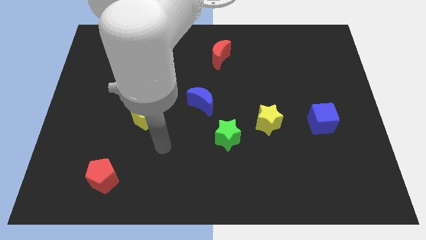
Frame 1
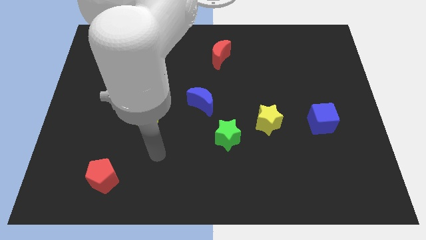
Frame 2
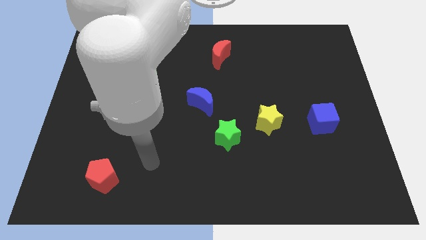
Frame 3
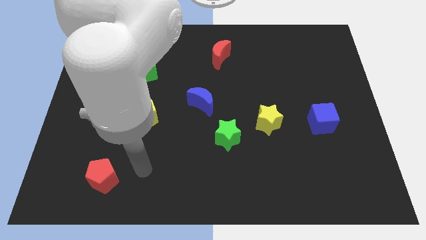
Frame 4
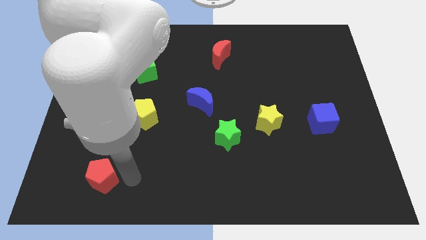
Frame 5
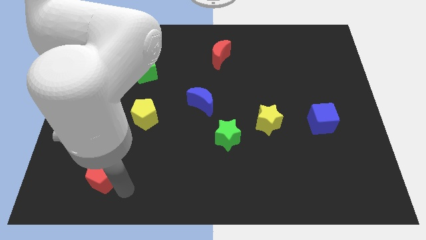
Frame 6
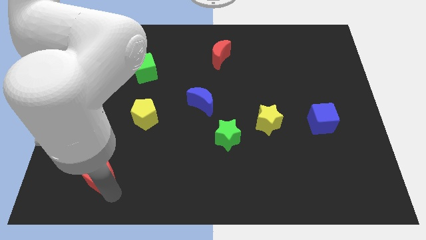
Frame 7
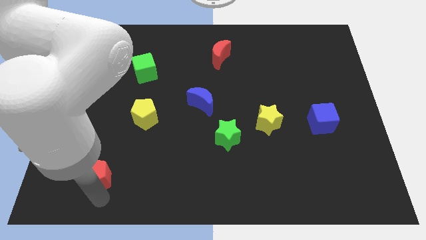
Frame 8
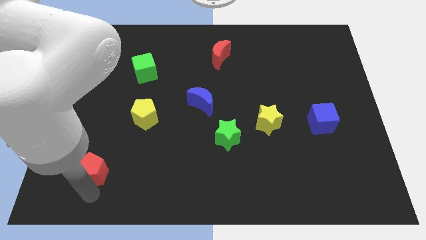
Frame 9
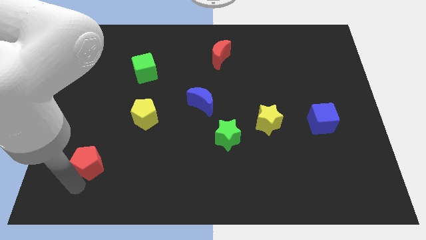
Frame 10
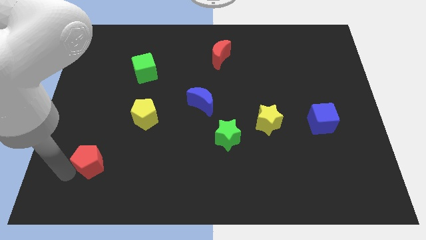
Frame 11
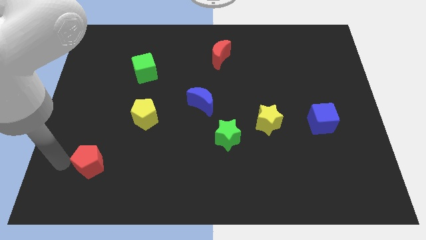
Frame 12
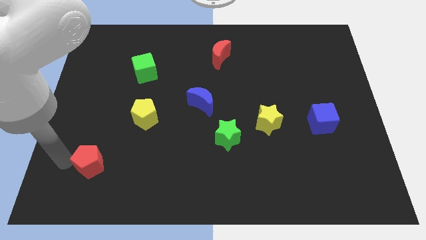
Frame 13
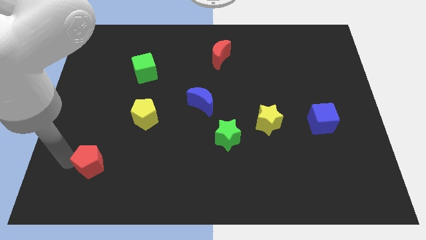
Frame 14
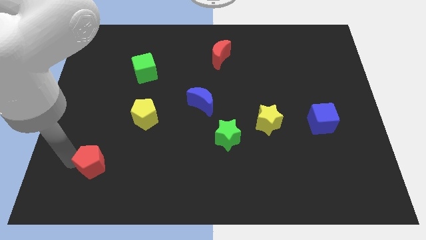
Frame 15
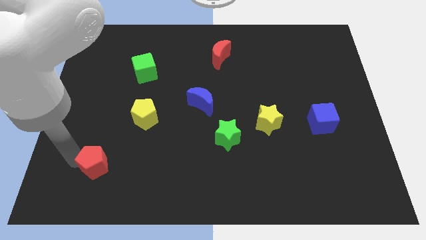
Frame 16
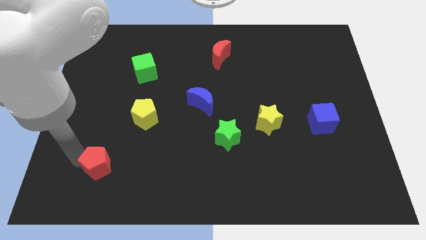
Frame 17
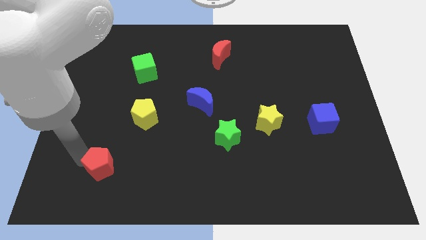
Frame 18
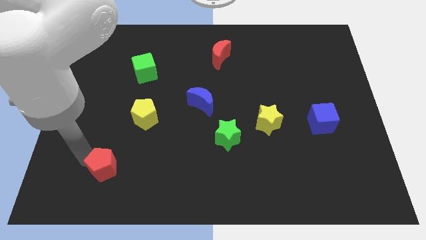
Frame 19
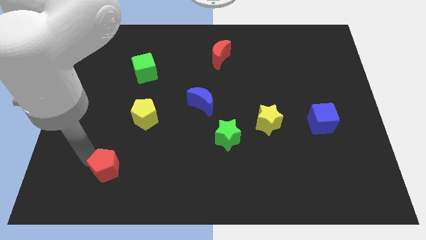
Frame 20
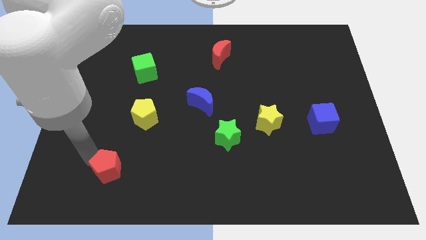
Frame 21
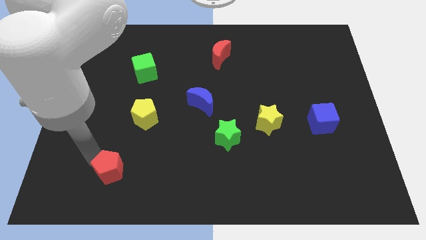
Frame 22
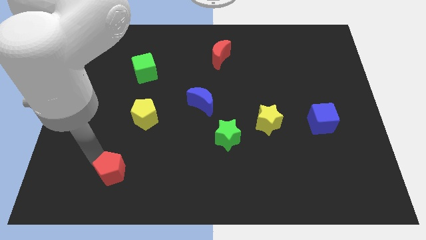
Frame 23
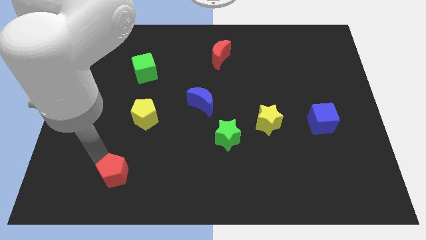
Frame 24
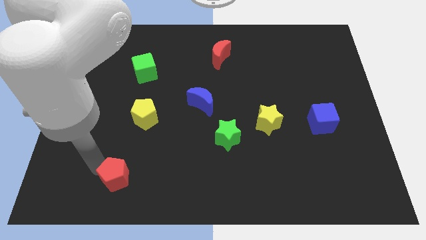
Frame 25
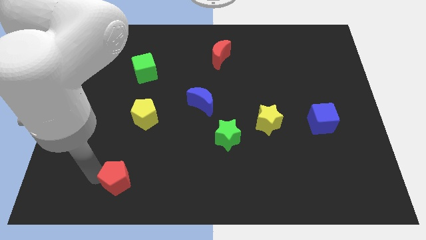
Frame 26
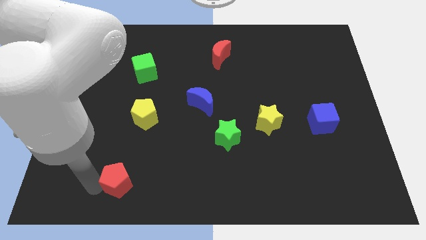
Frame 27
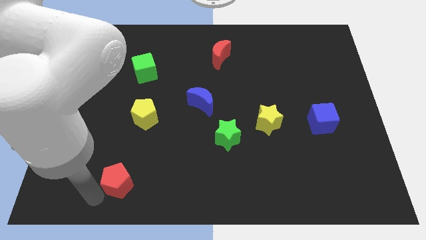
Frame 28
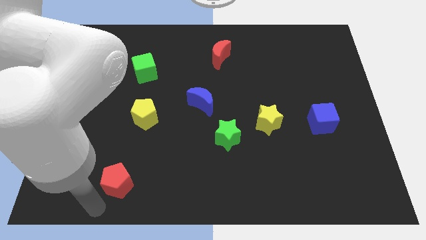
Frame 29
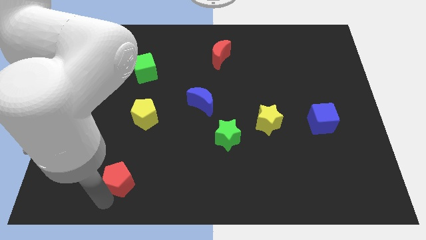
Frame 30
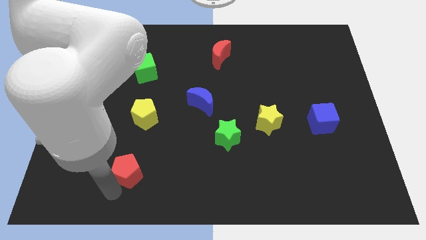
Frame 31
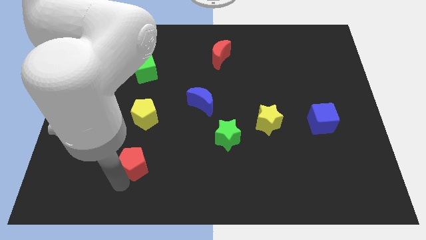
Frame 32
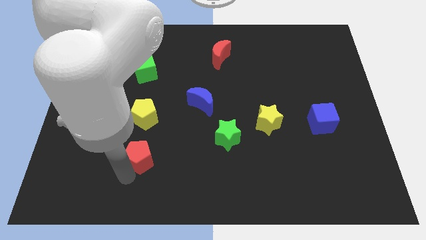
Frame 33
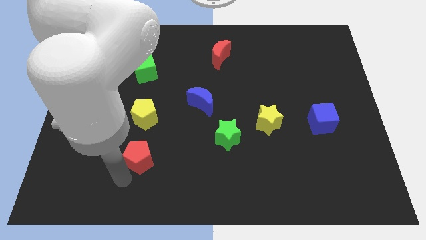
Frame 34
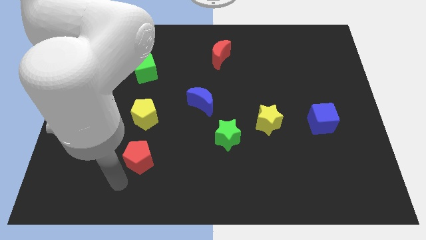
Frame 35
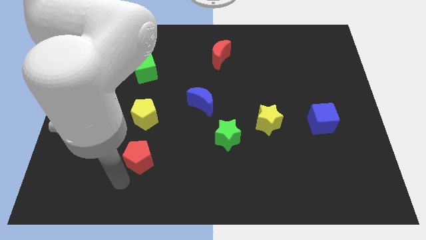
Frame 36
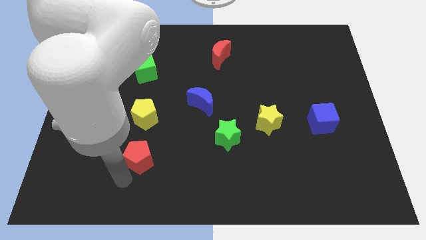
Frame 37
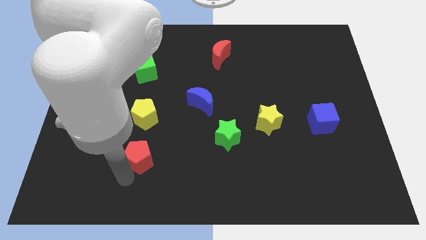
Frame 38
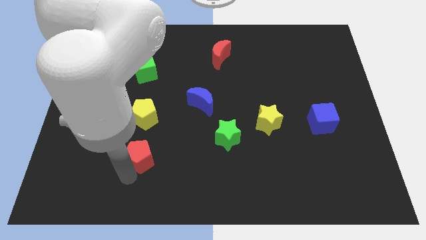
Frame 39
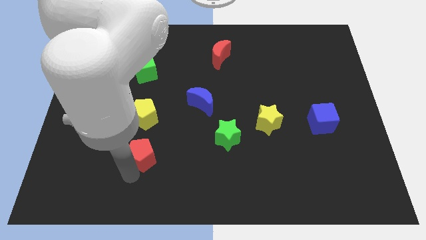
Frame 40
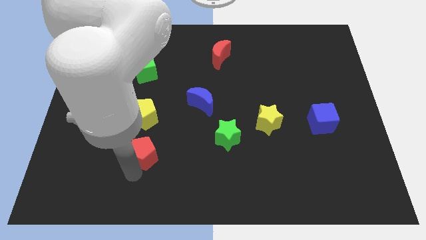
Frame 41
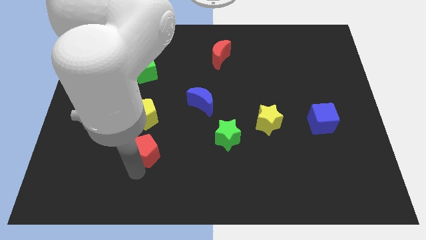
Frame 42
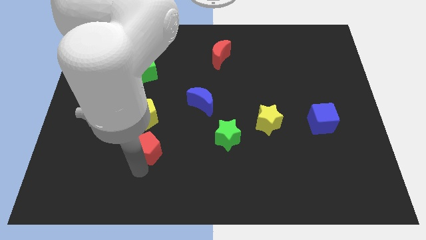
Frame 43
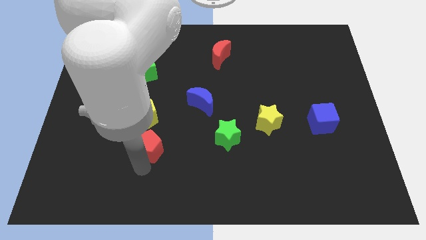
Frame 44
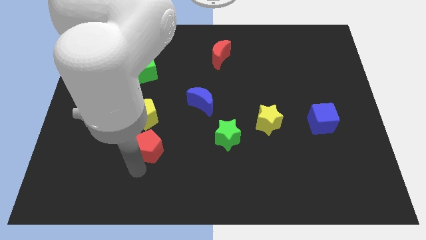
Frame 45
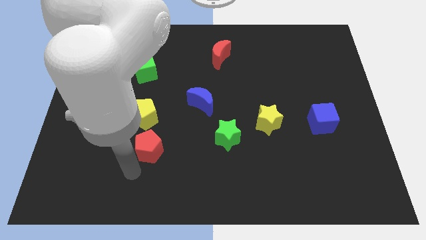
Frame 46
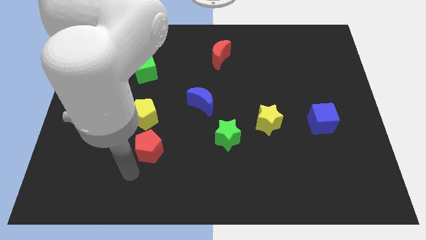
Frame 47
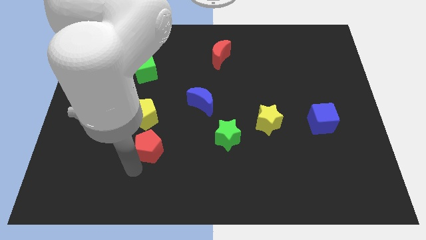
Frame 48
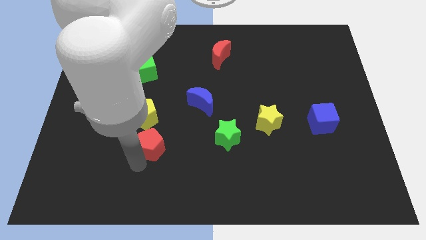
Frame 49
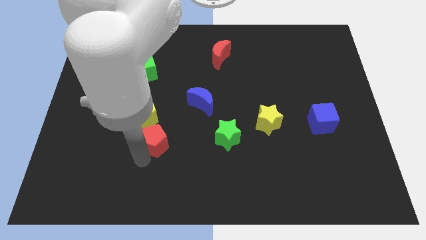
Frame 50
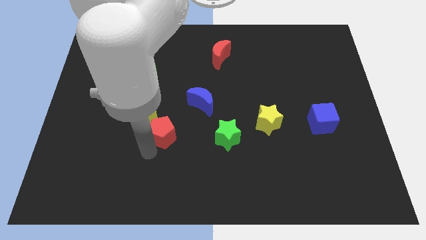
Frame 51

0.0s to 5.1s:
push the red pentagon to the bottom left side of the blue moon
